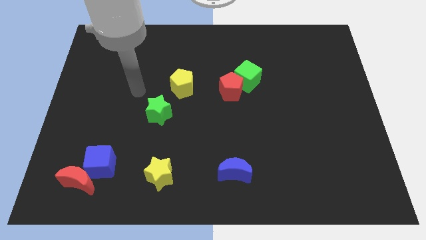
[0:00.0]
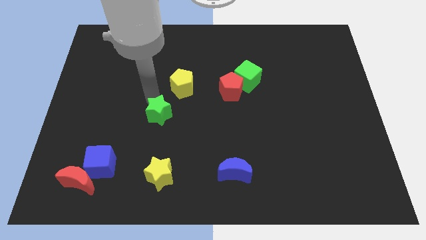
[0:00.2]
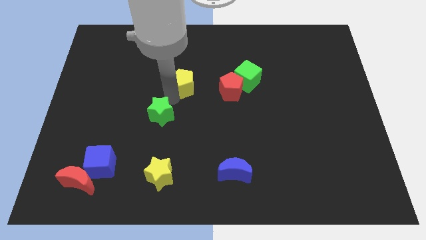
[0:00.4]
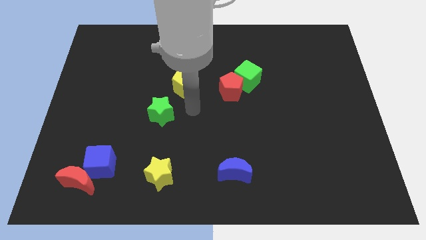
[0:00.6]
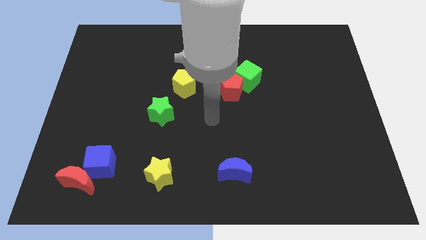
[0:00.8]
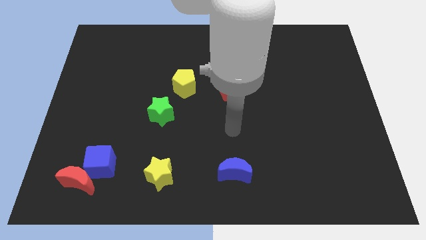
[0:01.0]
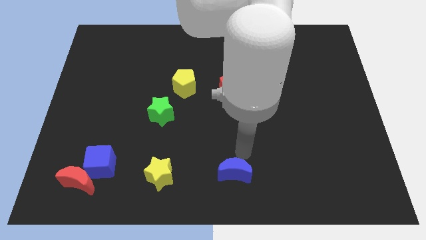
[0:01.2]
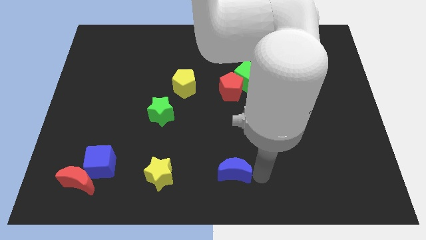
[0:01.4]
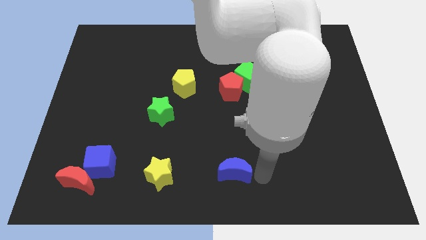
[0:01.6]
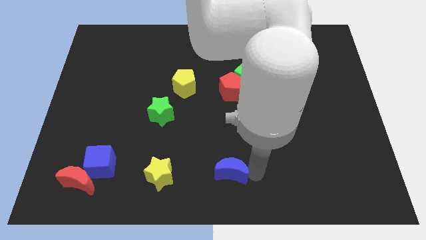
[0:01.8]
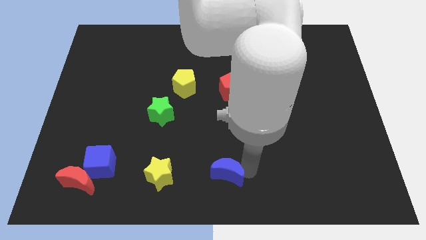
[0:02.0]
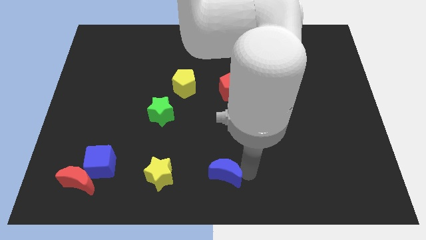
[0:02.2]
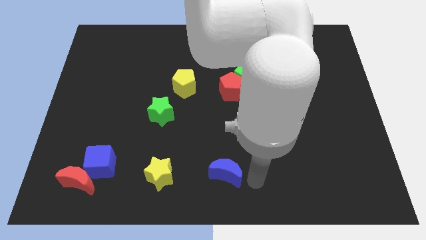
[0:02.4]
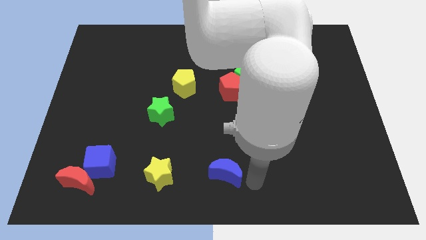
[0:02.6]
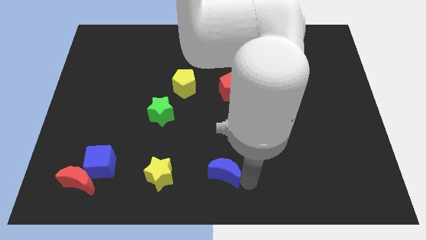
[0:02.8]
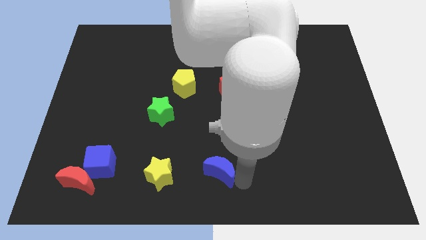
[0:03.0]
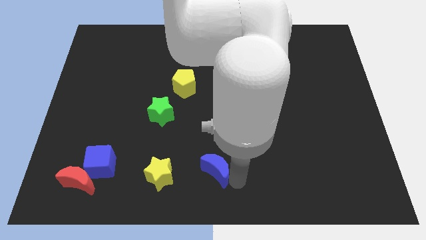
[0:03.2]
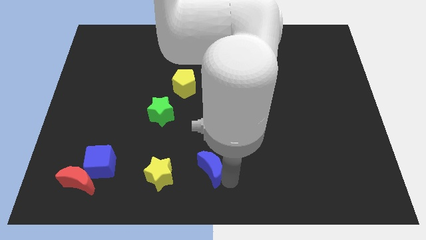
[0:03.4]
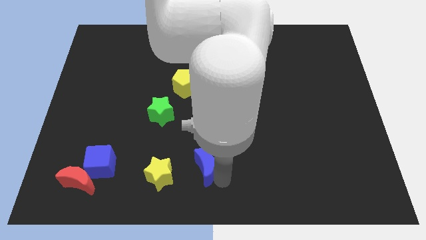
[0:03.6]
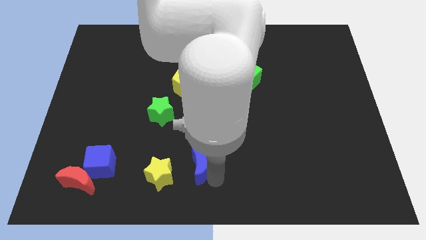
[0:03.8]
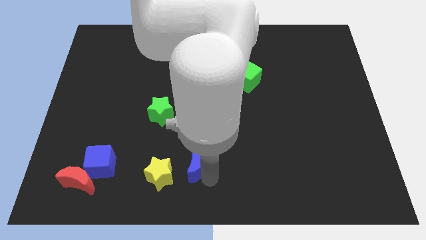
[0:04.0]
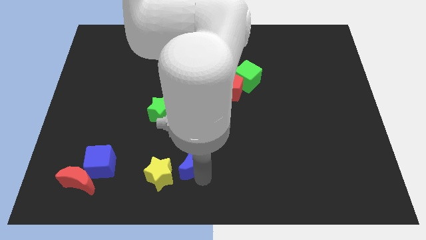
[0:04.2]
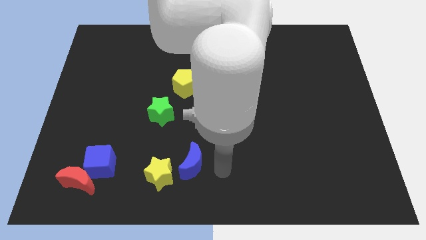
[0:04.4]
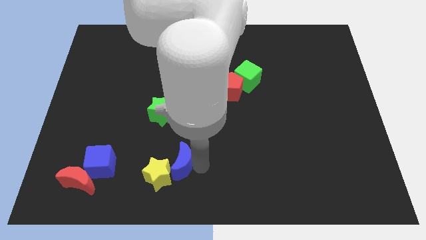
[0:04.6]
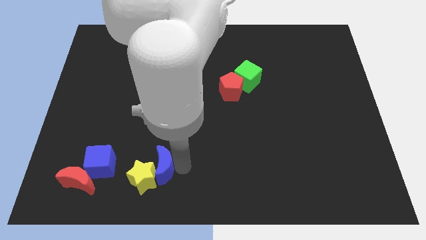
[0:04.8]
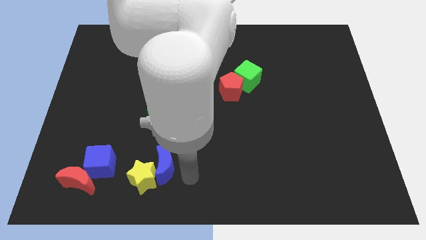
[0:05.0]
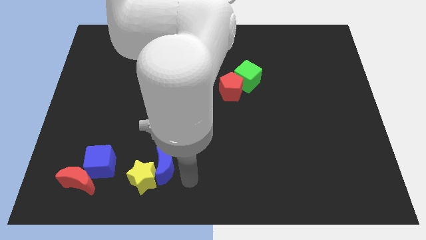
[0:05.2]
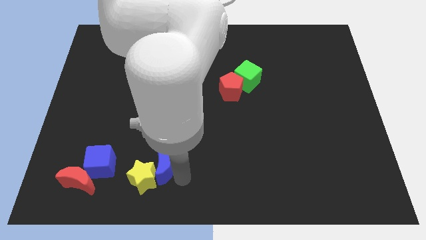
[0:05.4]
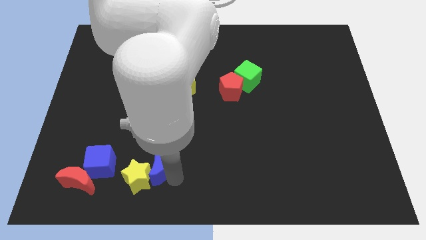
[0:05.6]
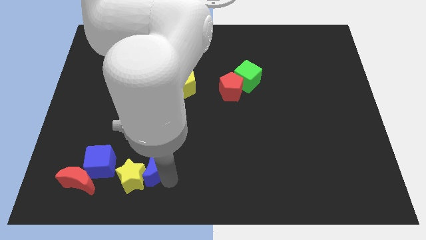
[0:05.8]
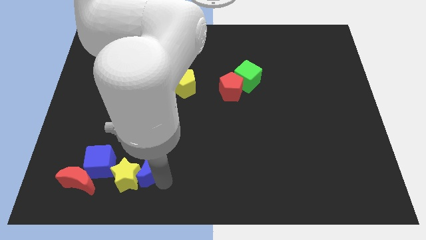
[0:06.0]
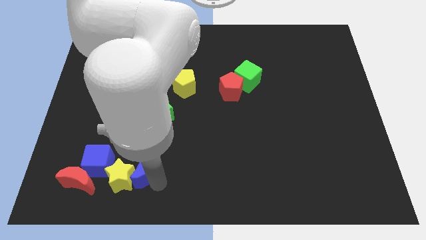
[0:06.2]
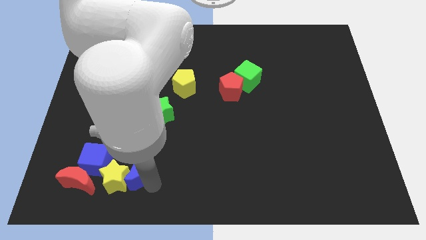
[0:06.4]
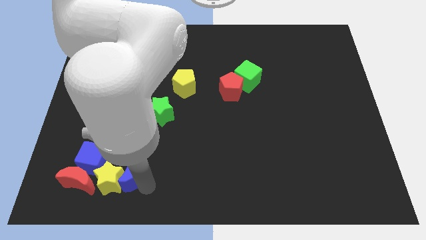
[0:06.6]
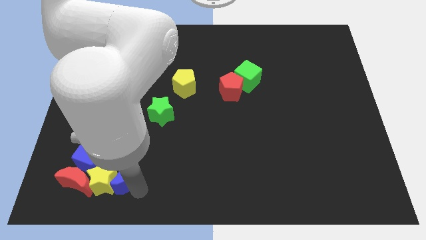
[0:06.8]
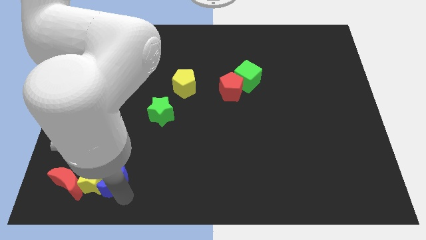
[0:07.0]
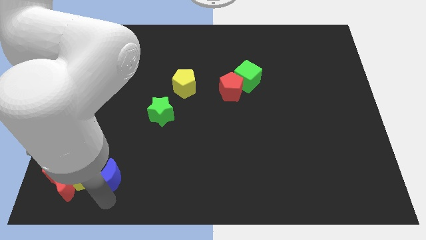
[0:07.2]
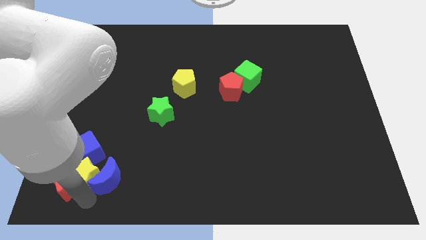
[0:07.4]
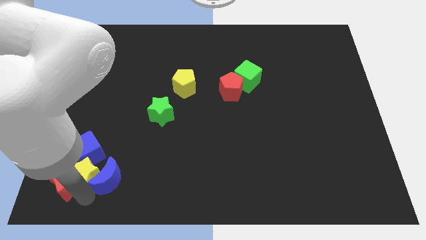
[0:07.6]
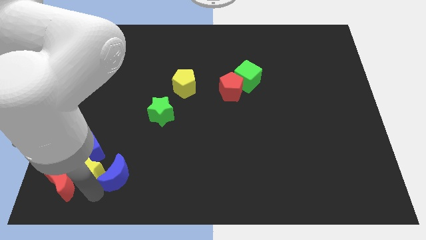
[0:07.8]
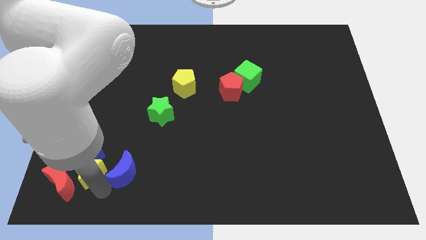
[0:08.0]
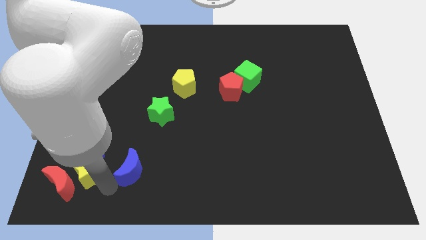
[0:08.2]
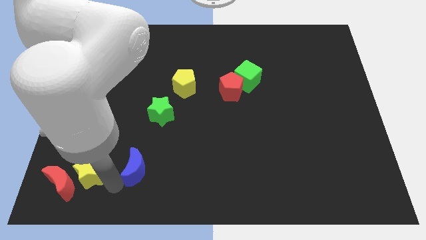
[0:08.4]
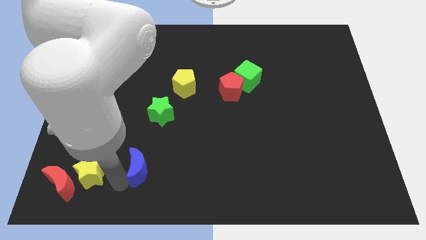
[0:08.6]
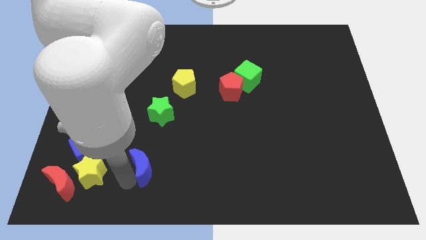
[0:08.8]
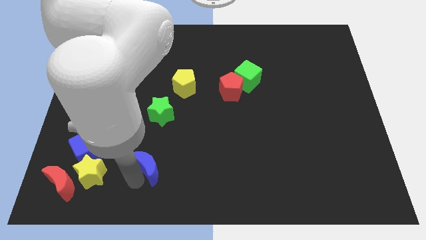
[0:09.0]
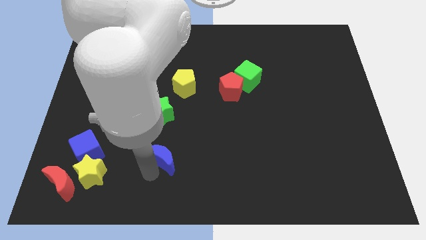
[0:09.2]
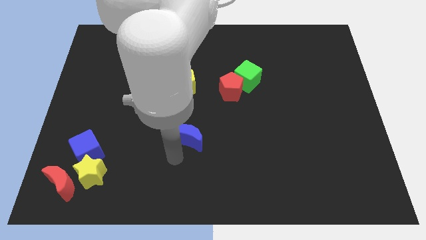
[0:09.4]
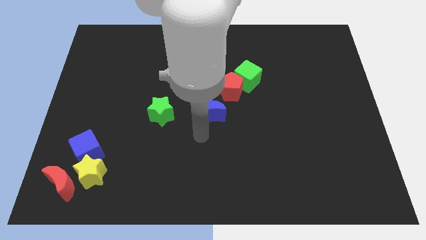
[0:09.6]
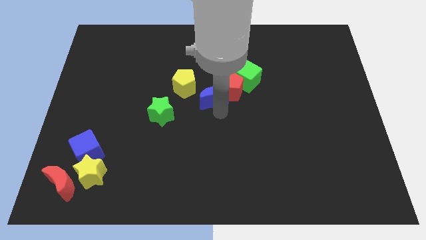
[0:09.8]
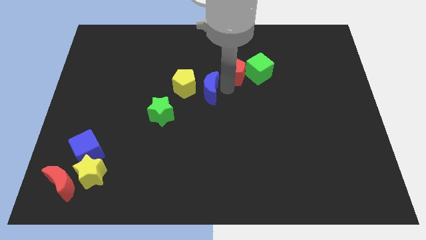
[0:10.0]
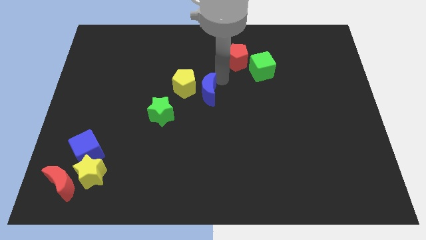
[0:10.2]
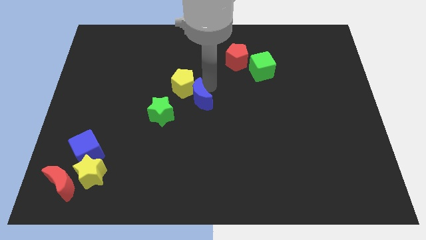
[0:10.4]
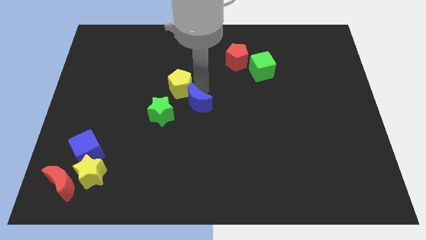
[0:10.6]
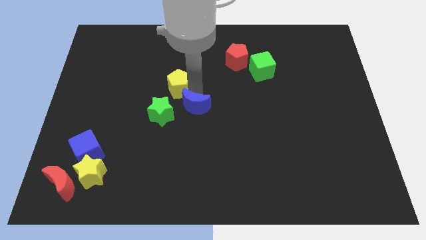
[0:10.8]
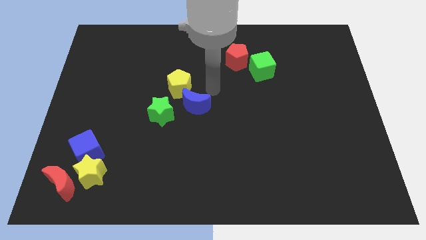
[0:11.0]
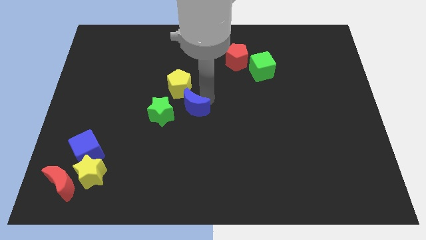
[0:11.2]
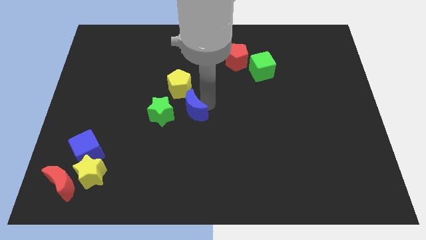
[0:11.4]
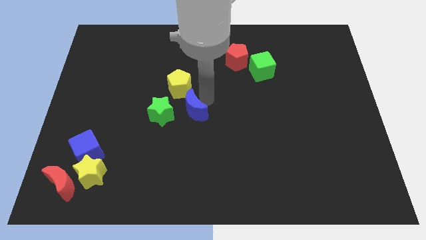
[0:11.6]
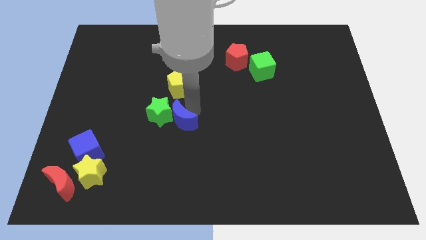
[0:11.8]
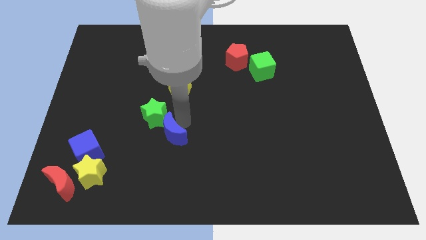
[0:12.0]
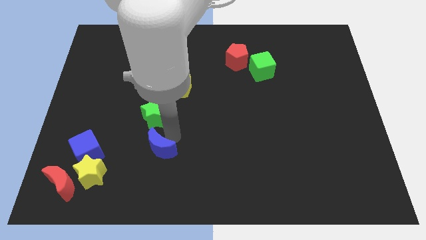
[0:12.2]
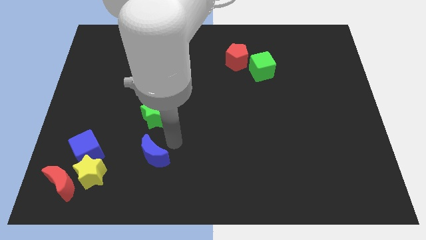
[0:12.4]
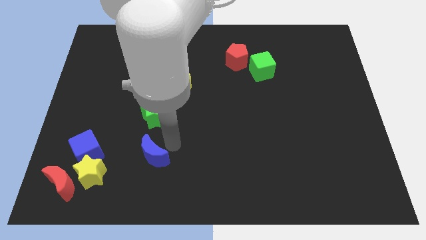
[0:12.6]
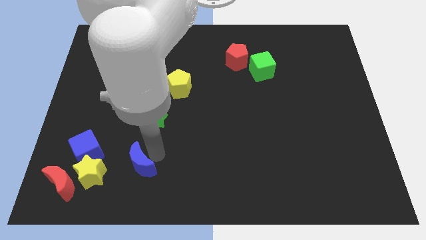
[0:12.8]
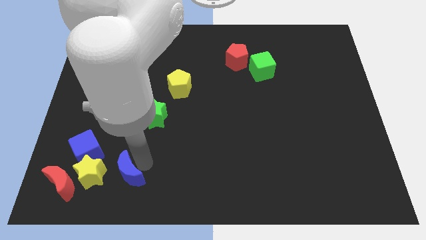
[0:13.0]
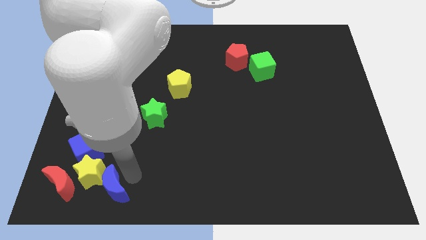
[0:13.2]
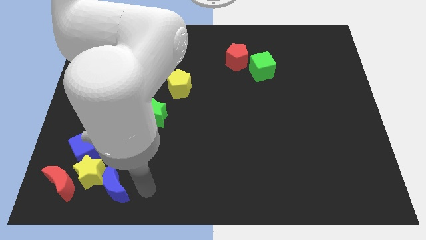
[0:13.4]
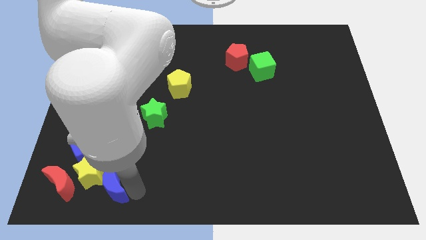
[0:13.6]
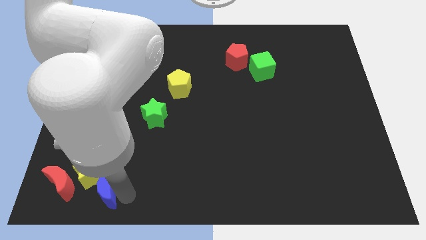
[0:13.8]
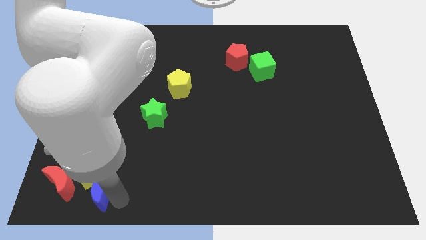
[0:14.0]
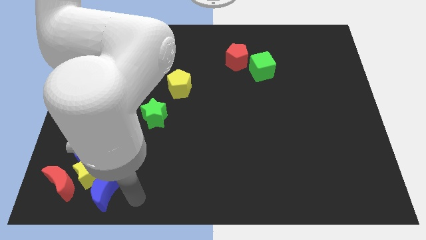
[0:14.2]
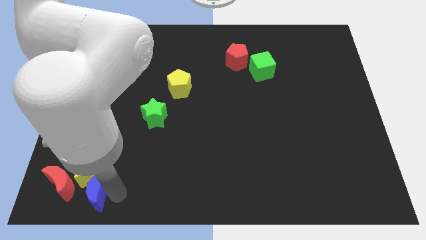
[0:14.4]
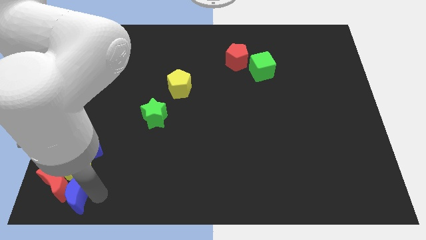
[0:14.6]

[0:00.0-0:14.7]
move the blue moon towards the red moon
